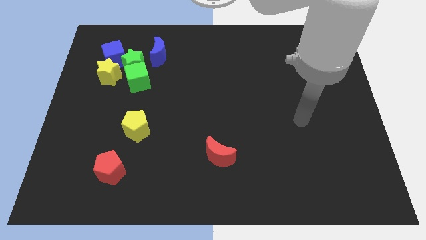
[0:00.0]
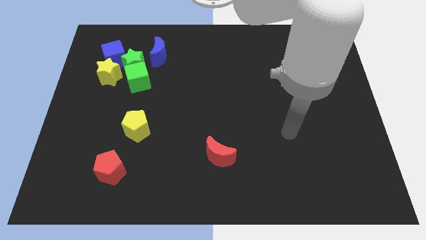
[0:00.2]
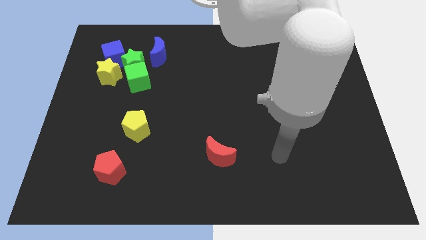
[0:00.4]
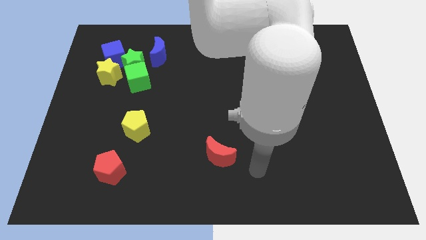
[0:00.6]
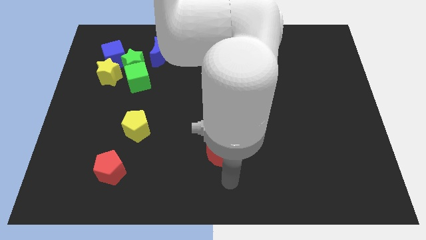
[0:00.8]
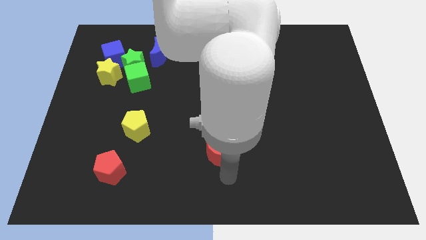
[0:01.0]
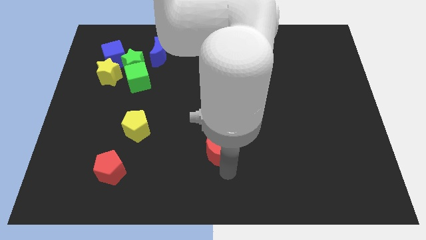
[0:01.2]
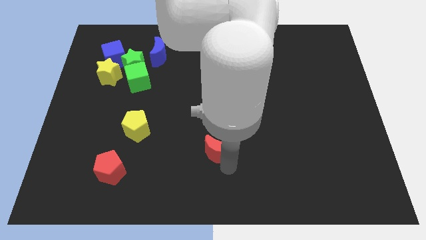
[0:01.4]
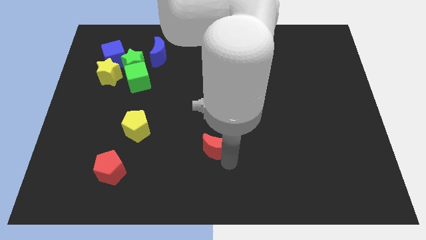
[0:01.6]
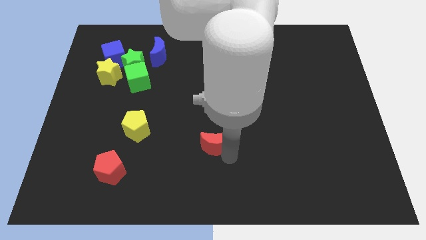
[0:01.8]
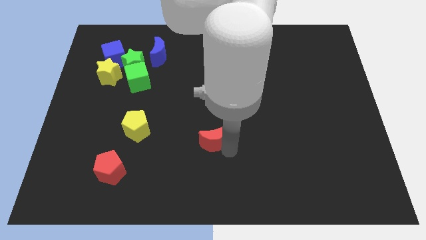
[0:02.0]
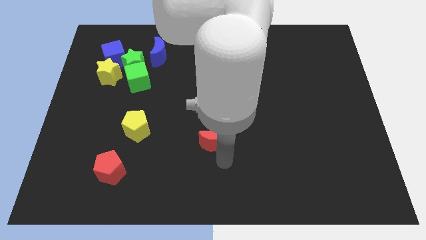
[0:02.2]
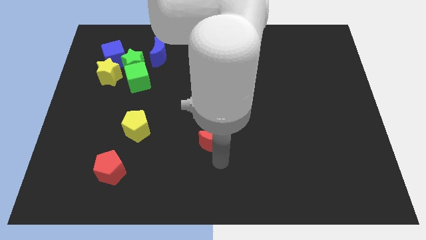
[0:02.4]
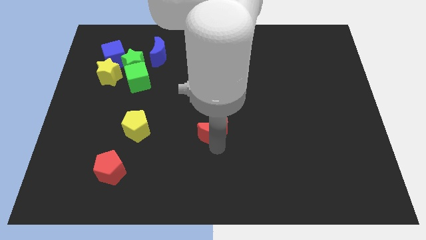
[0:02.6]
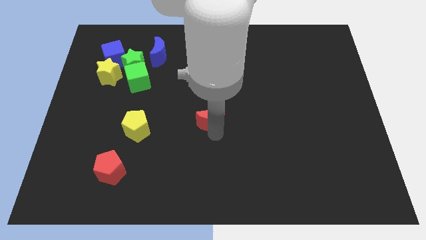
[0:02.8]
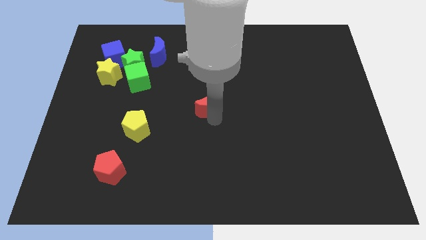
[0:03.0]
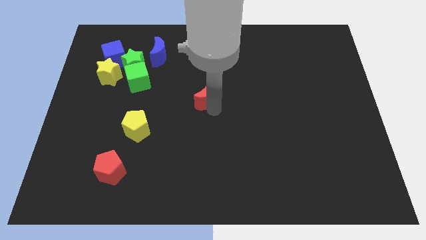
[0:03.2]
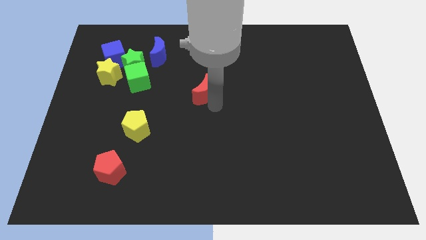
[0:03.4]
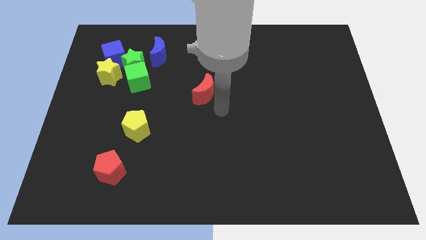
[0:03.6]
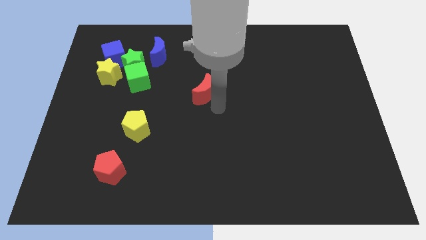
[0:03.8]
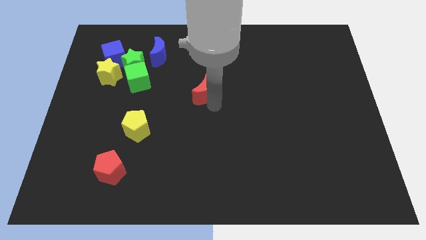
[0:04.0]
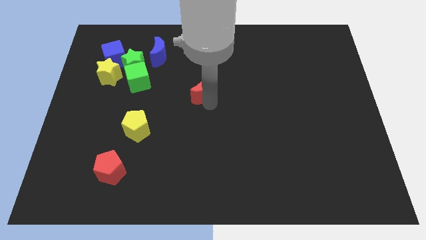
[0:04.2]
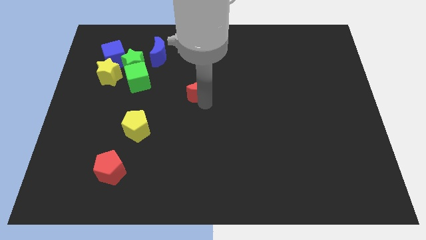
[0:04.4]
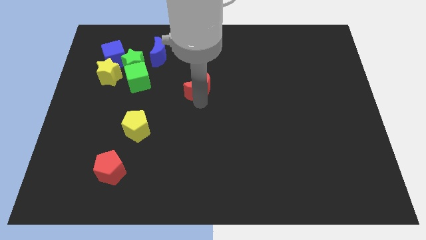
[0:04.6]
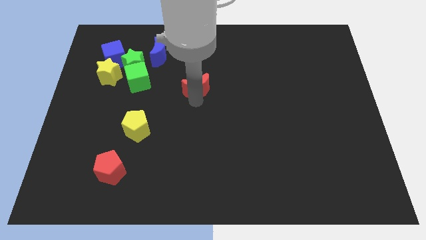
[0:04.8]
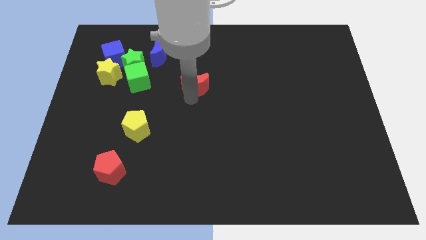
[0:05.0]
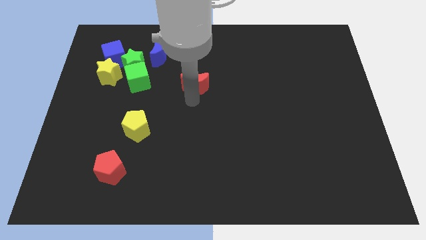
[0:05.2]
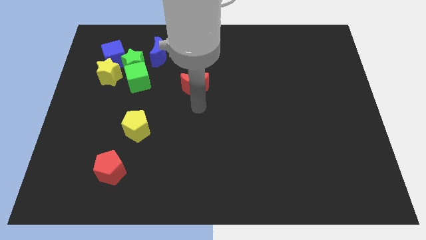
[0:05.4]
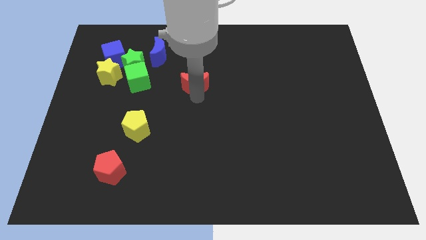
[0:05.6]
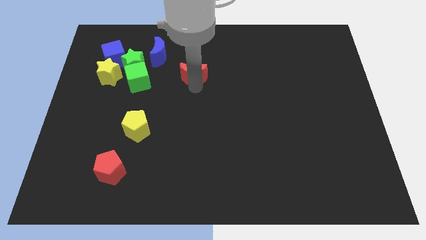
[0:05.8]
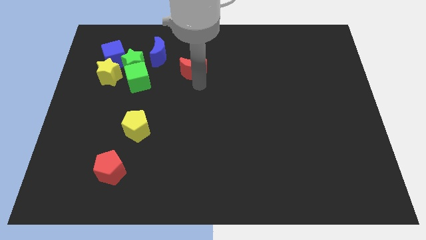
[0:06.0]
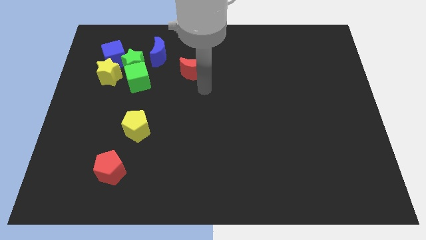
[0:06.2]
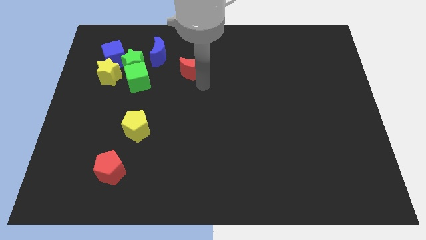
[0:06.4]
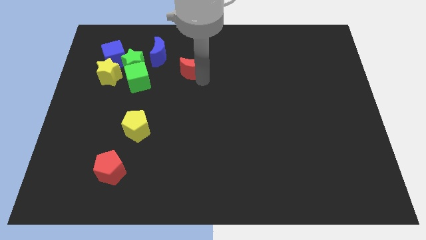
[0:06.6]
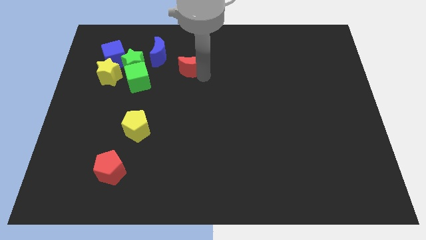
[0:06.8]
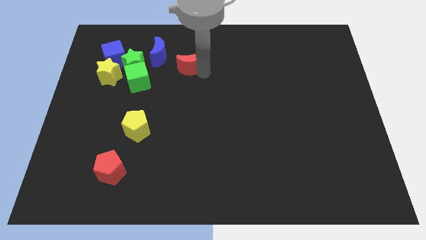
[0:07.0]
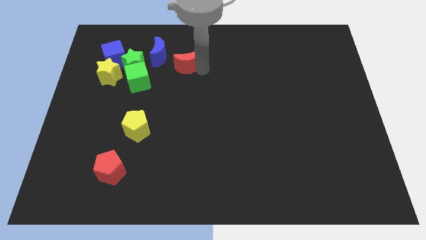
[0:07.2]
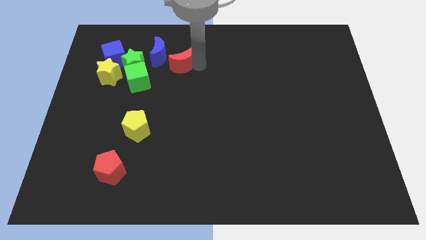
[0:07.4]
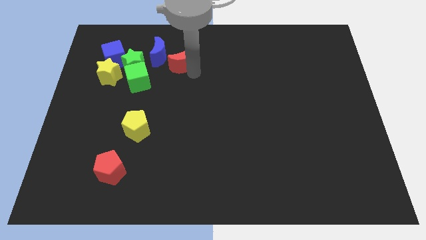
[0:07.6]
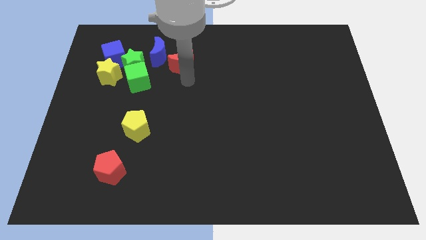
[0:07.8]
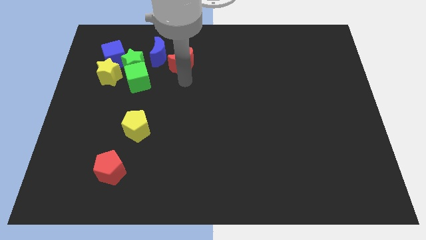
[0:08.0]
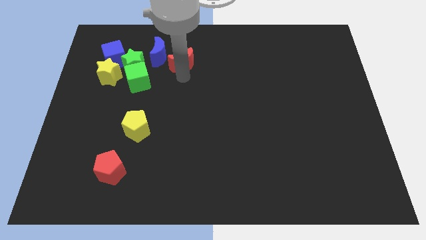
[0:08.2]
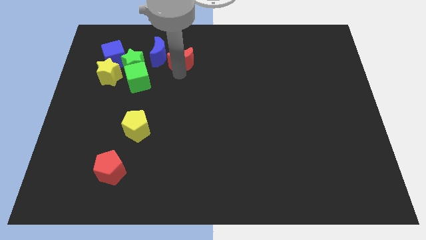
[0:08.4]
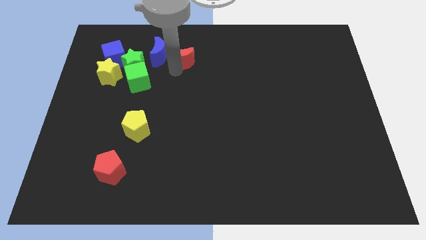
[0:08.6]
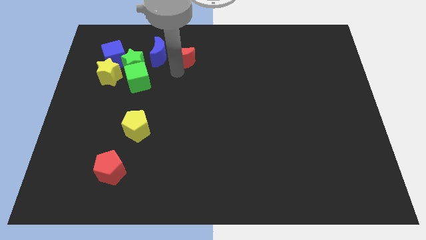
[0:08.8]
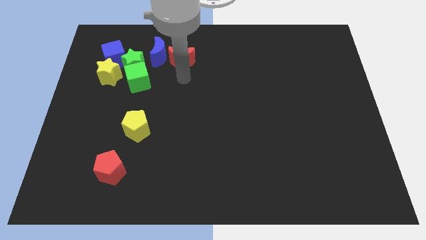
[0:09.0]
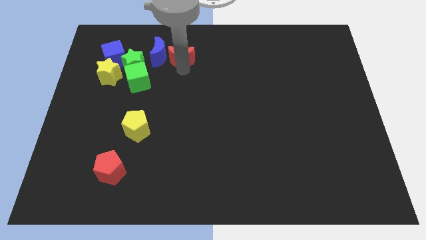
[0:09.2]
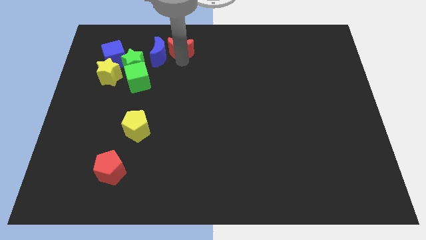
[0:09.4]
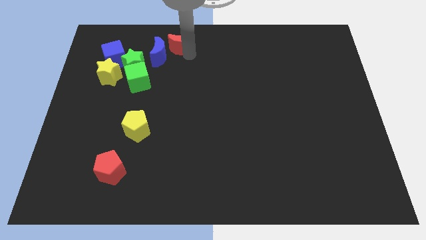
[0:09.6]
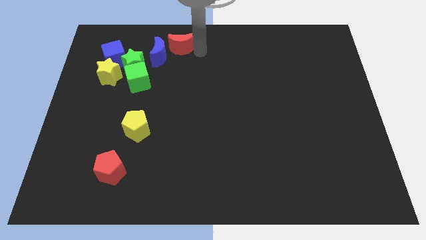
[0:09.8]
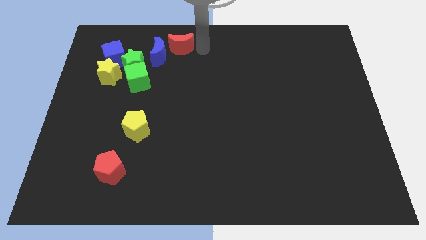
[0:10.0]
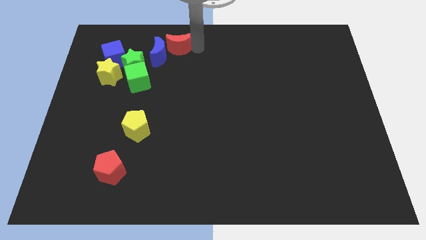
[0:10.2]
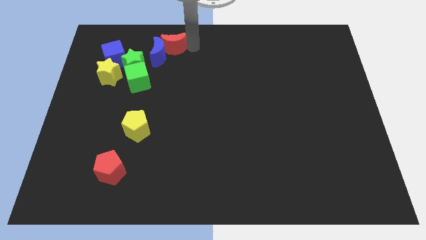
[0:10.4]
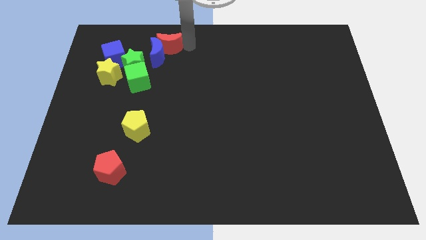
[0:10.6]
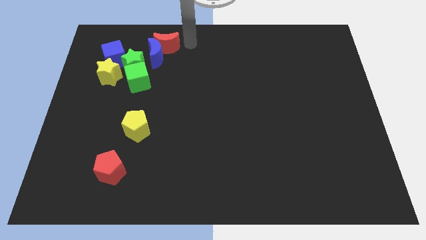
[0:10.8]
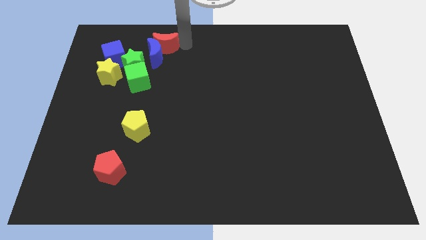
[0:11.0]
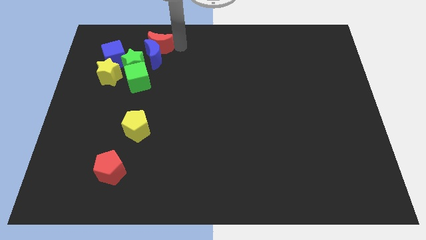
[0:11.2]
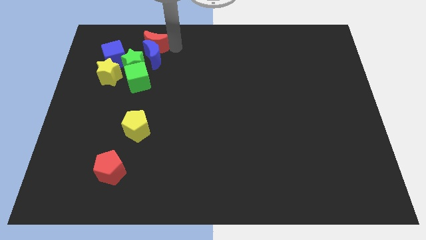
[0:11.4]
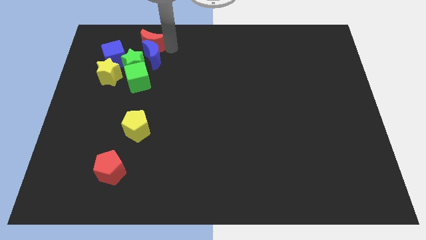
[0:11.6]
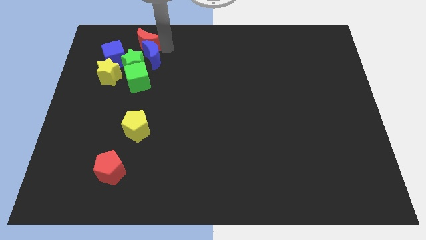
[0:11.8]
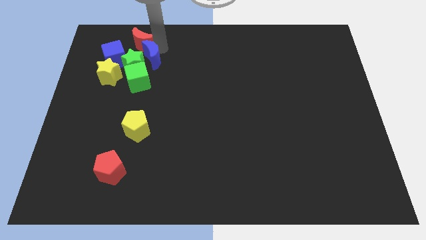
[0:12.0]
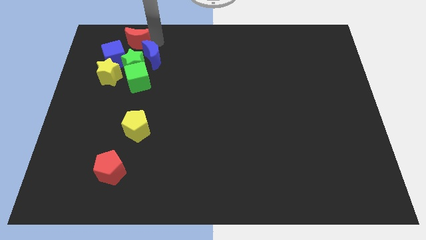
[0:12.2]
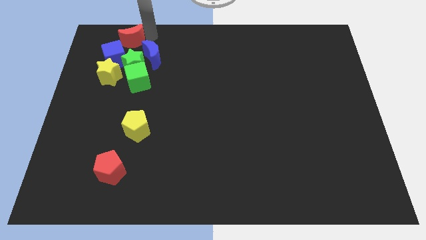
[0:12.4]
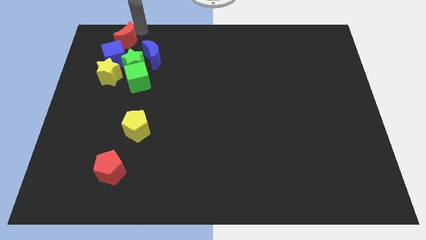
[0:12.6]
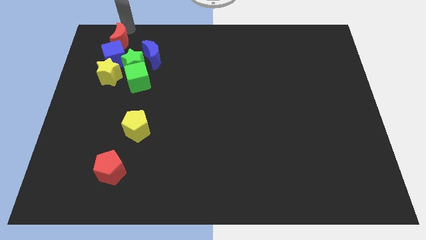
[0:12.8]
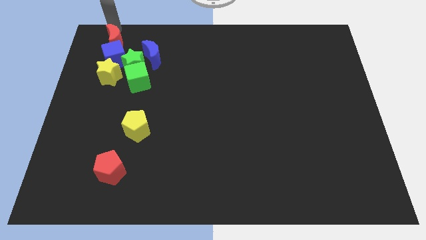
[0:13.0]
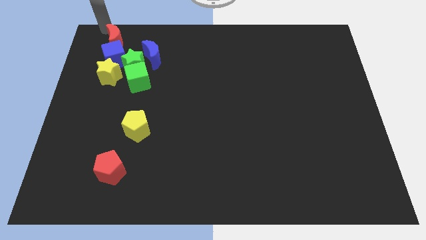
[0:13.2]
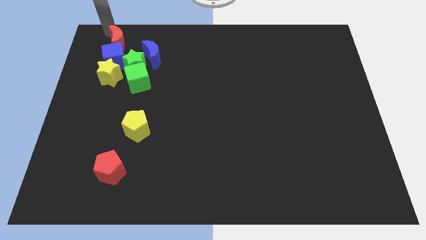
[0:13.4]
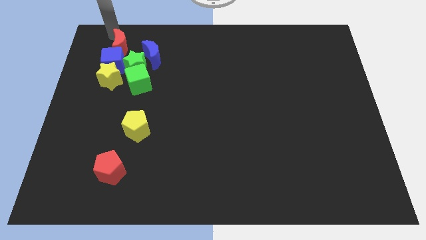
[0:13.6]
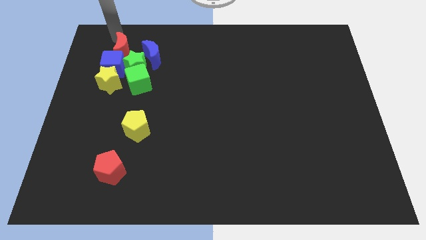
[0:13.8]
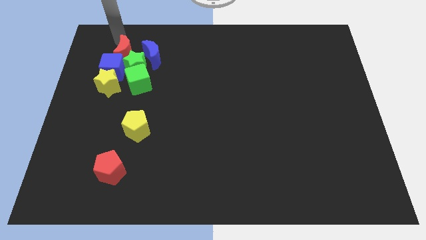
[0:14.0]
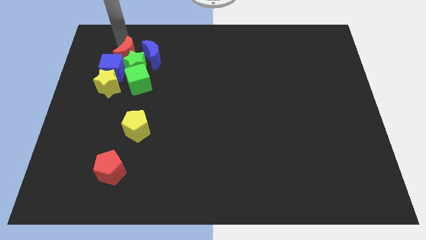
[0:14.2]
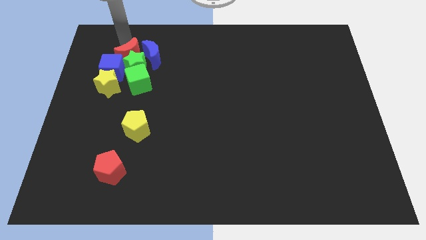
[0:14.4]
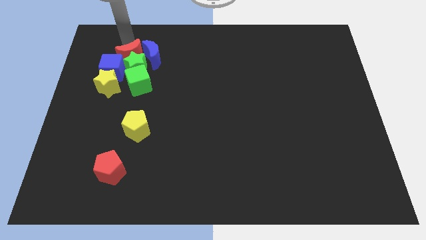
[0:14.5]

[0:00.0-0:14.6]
push the red moon diagonally up and to the right of the yellow star
